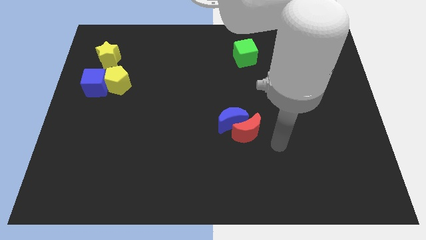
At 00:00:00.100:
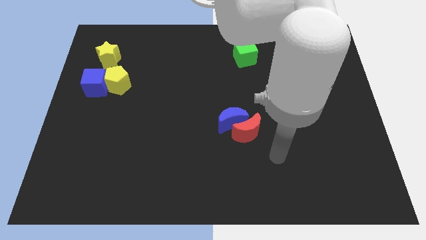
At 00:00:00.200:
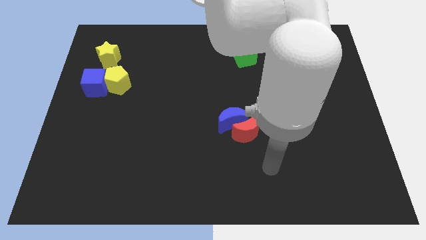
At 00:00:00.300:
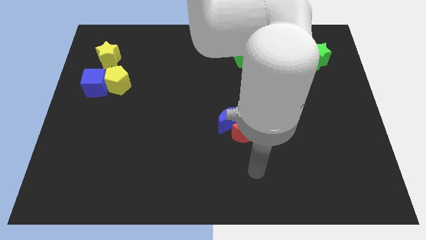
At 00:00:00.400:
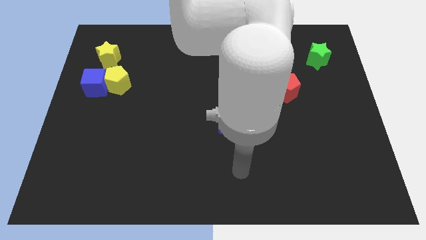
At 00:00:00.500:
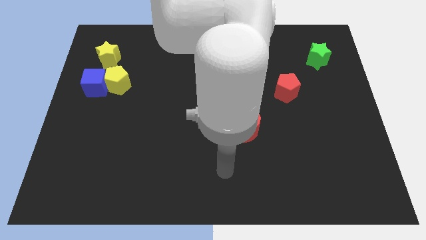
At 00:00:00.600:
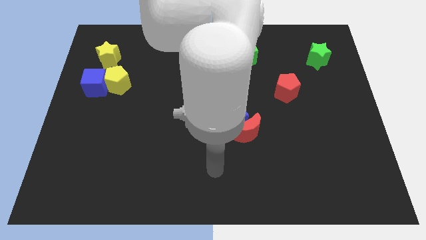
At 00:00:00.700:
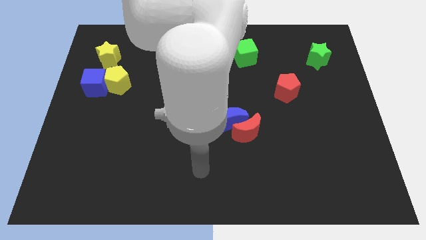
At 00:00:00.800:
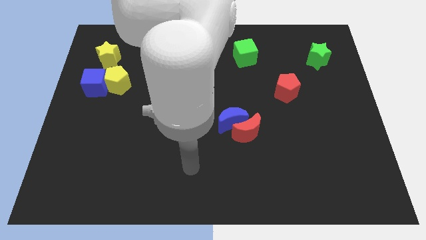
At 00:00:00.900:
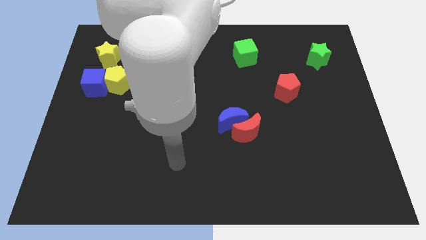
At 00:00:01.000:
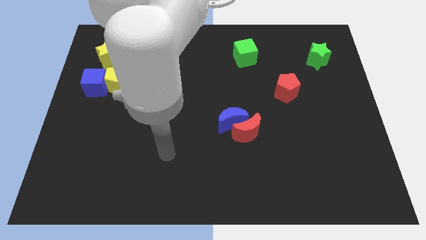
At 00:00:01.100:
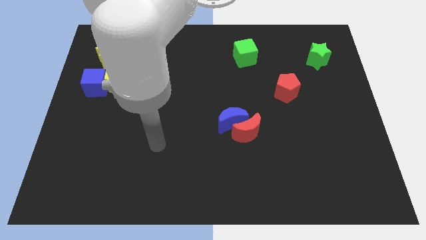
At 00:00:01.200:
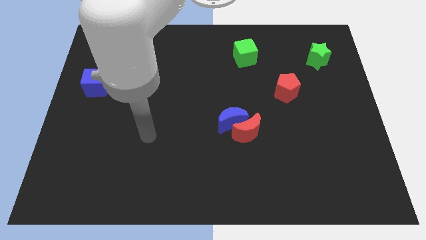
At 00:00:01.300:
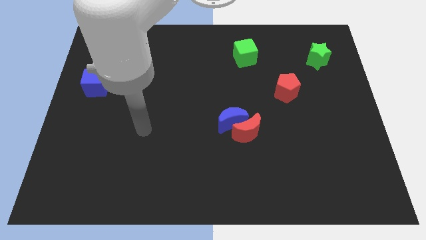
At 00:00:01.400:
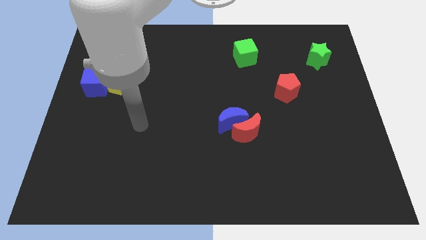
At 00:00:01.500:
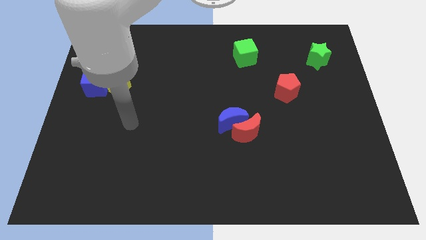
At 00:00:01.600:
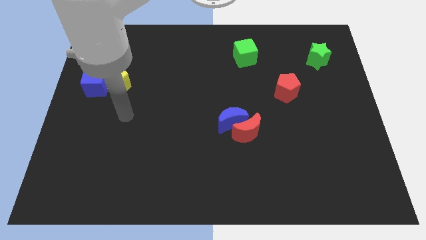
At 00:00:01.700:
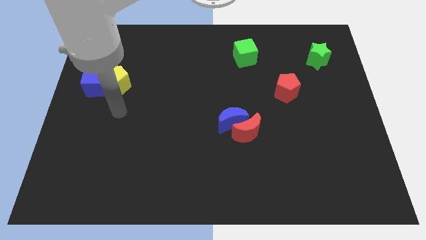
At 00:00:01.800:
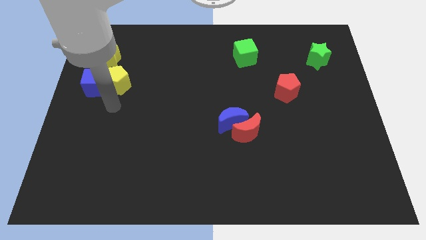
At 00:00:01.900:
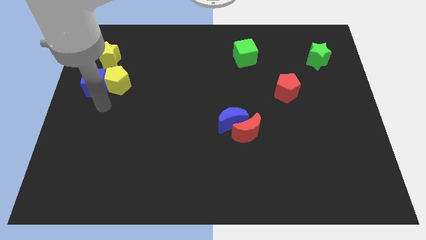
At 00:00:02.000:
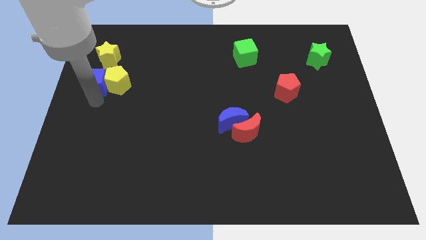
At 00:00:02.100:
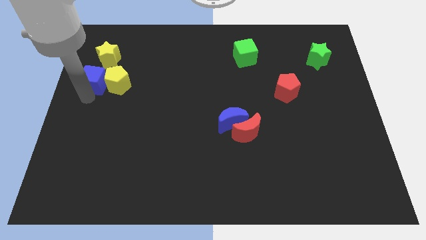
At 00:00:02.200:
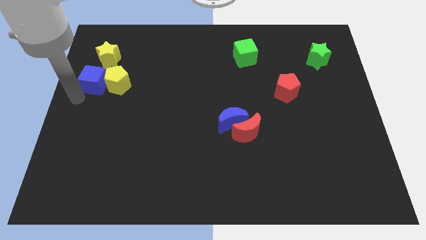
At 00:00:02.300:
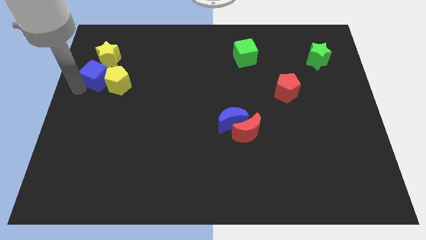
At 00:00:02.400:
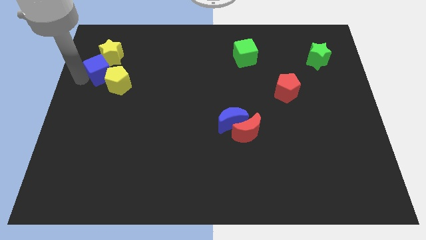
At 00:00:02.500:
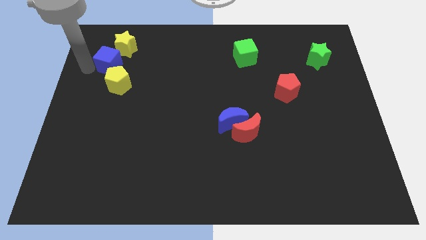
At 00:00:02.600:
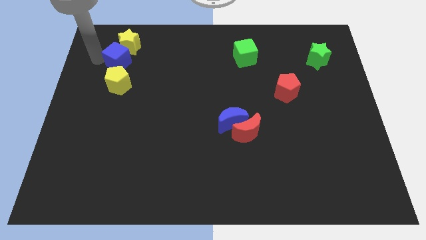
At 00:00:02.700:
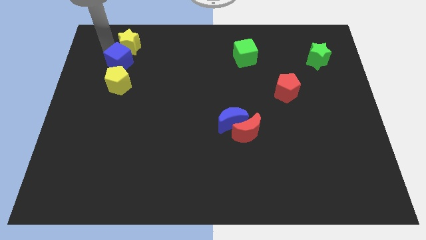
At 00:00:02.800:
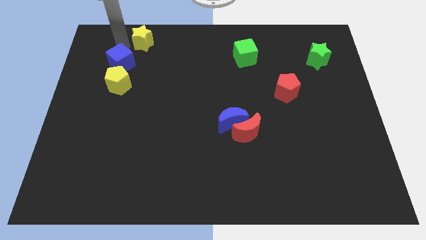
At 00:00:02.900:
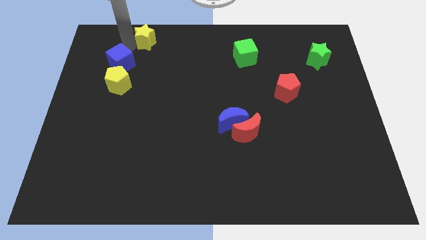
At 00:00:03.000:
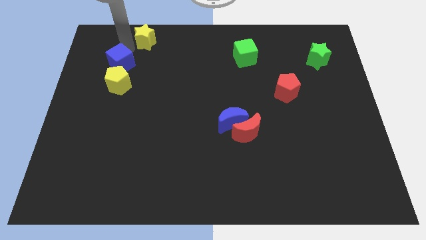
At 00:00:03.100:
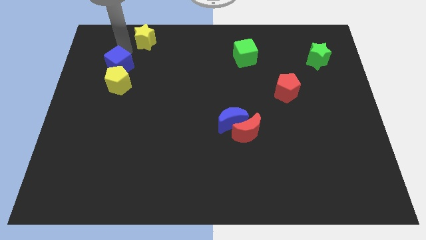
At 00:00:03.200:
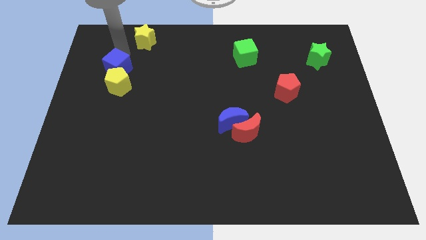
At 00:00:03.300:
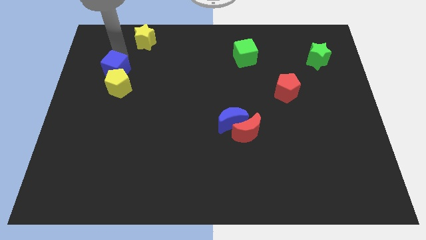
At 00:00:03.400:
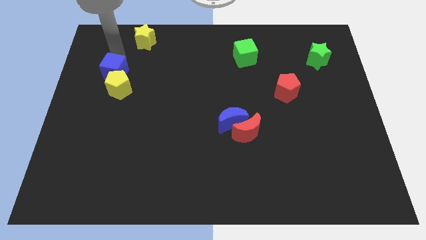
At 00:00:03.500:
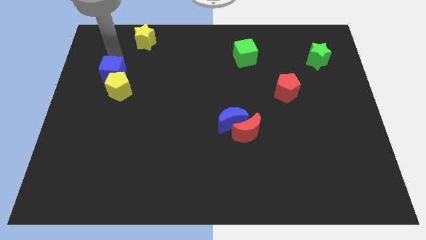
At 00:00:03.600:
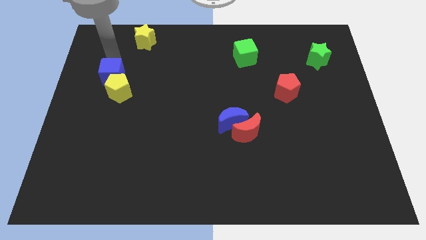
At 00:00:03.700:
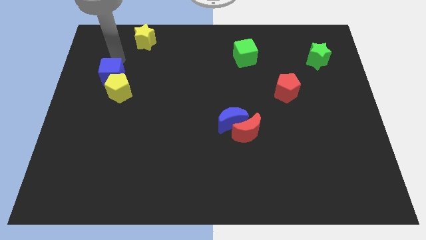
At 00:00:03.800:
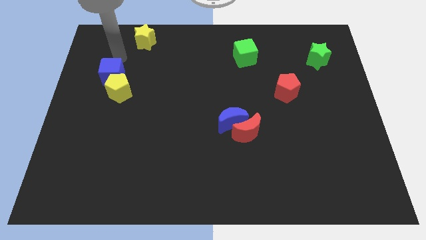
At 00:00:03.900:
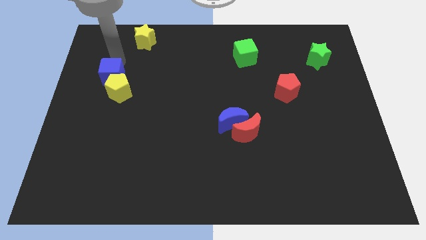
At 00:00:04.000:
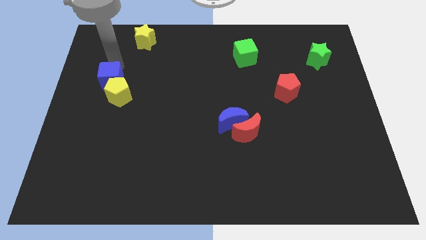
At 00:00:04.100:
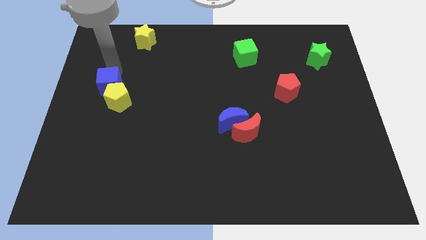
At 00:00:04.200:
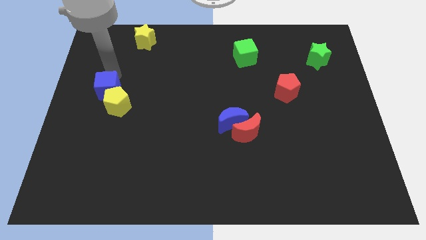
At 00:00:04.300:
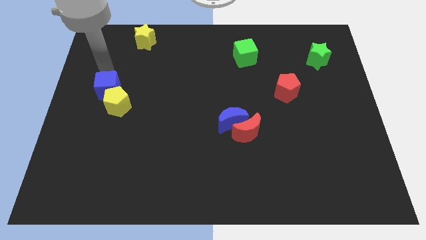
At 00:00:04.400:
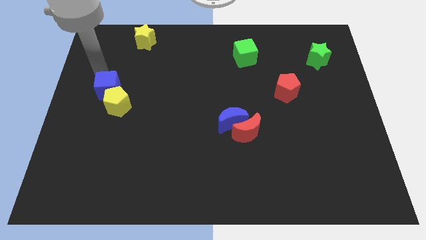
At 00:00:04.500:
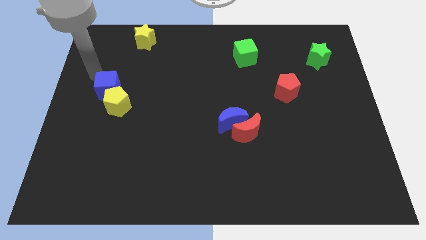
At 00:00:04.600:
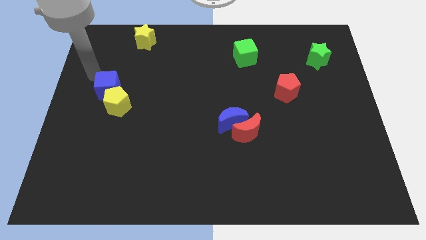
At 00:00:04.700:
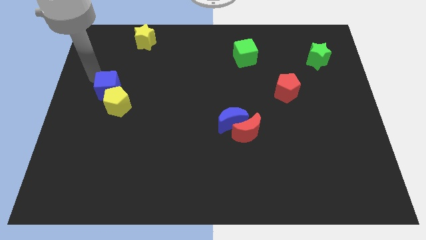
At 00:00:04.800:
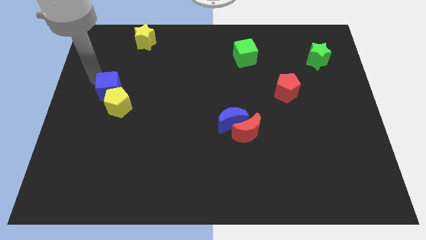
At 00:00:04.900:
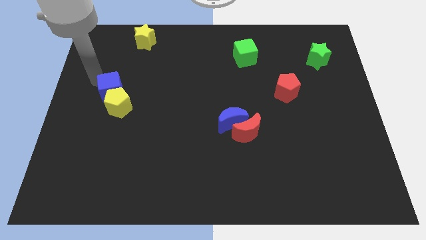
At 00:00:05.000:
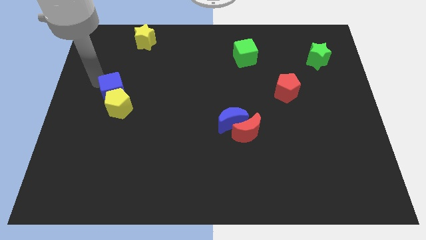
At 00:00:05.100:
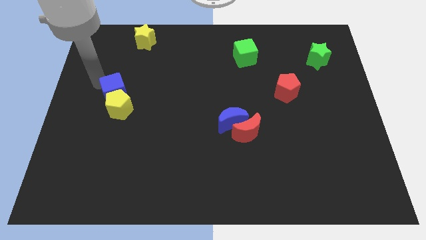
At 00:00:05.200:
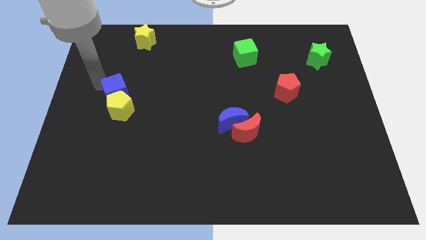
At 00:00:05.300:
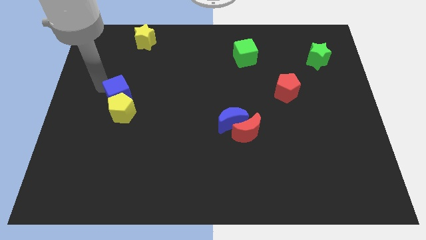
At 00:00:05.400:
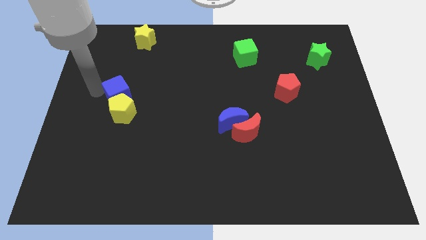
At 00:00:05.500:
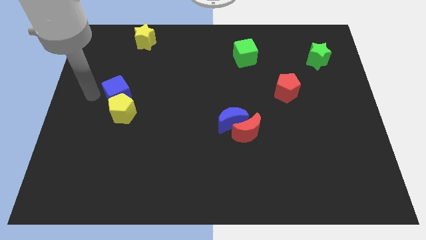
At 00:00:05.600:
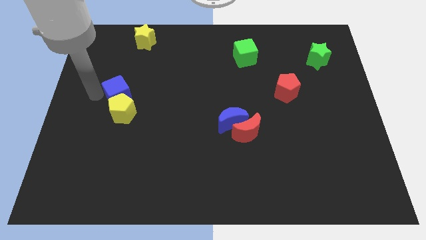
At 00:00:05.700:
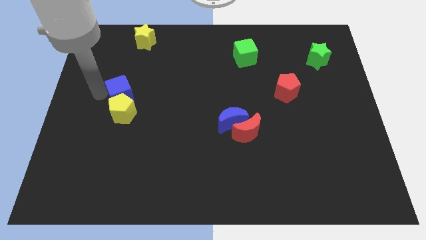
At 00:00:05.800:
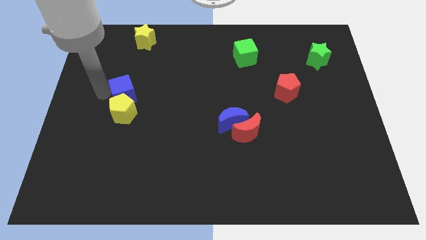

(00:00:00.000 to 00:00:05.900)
push the blue cube right a little bit

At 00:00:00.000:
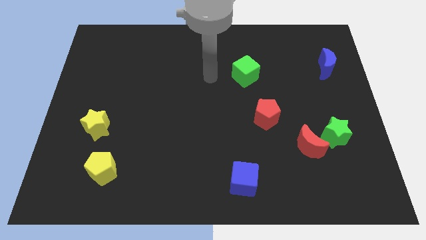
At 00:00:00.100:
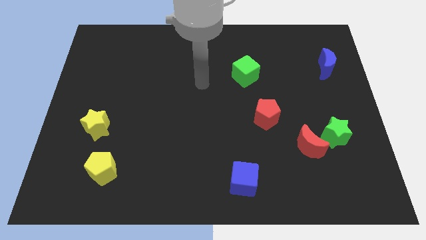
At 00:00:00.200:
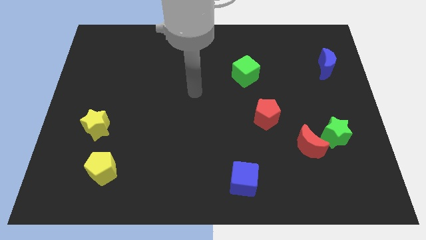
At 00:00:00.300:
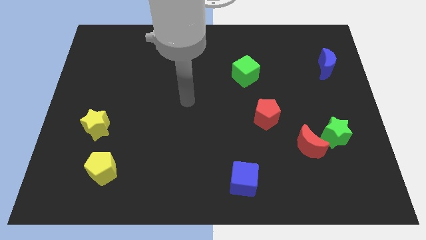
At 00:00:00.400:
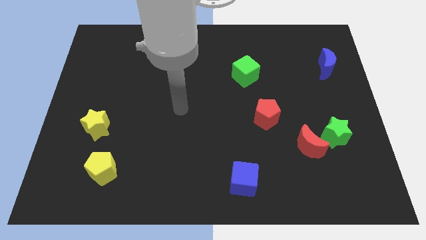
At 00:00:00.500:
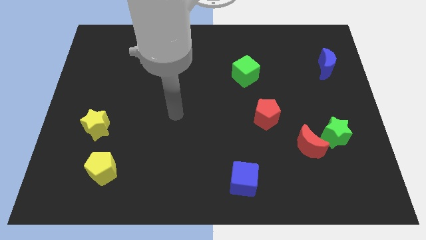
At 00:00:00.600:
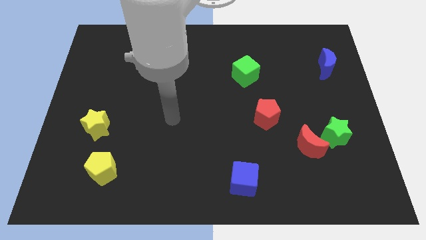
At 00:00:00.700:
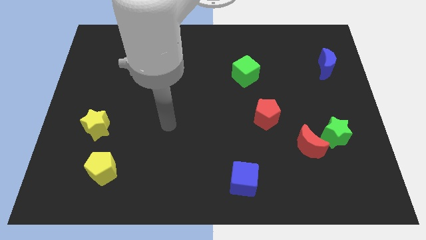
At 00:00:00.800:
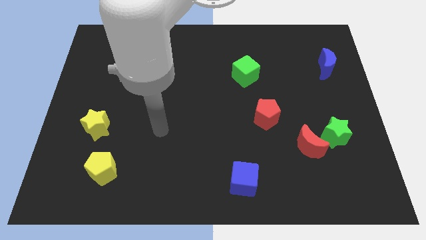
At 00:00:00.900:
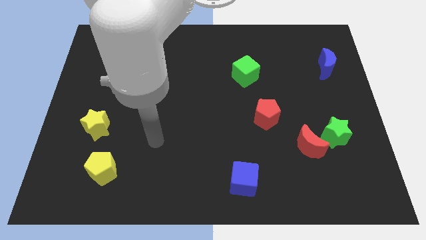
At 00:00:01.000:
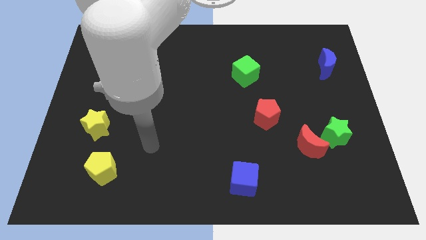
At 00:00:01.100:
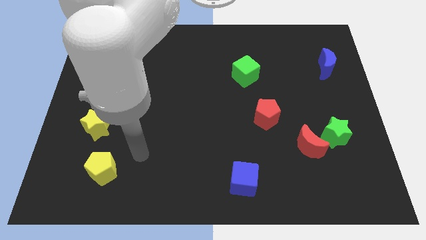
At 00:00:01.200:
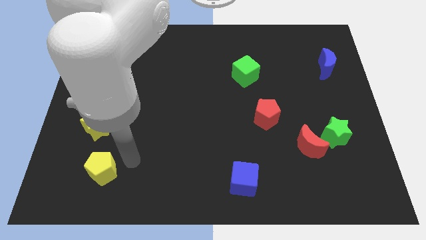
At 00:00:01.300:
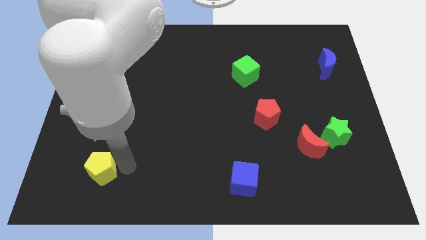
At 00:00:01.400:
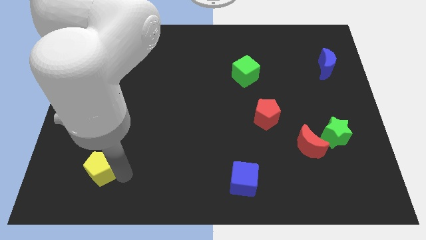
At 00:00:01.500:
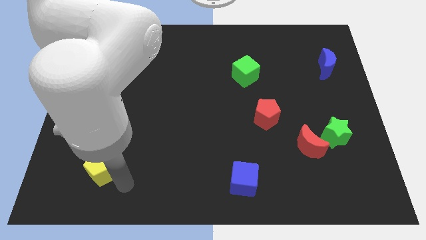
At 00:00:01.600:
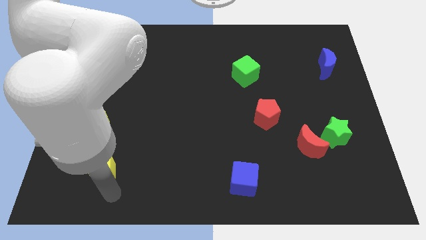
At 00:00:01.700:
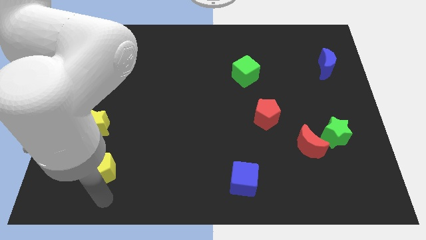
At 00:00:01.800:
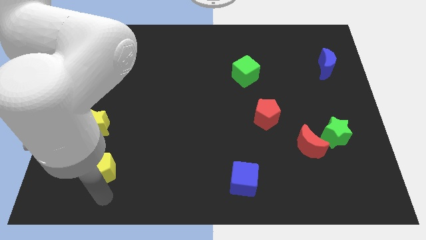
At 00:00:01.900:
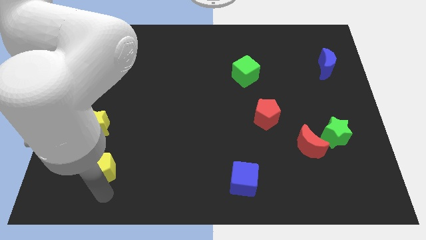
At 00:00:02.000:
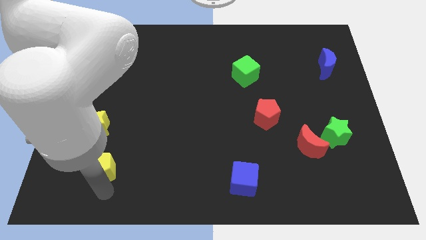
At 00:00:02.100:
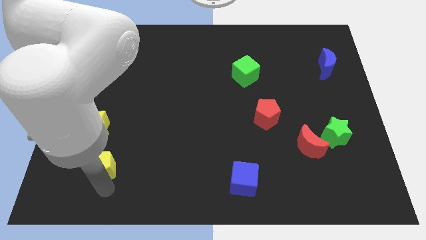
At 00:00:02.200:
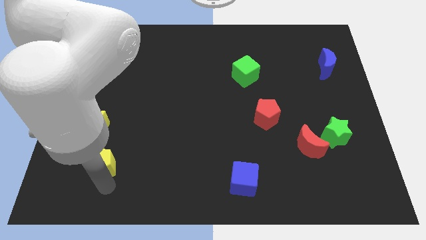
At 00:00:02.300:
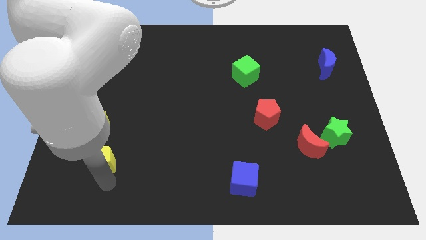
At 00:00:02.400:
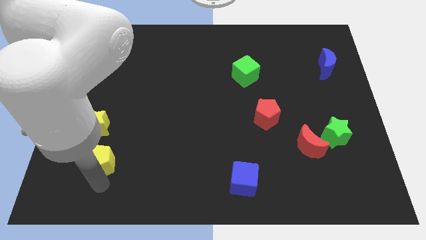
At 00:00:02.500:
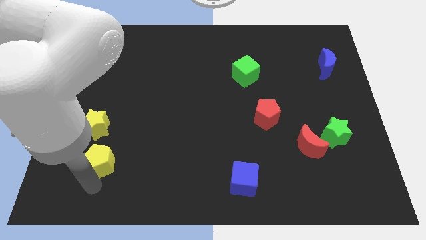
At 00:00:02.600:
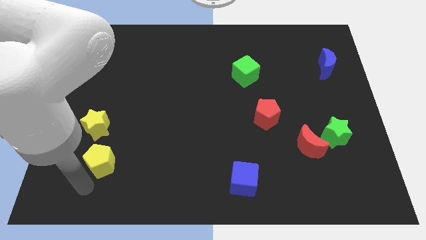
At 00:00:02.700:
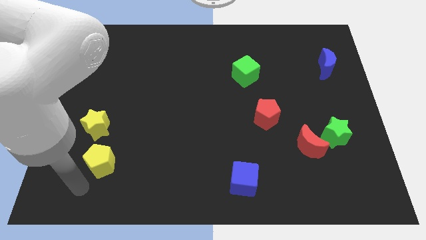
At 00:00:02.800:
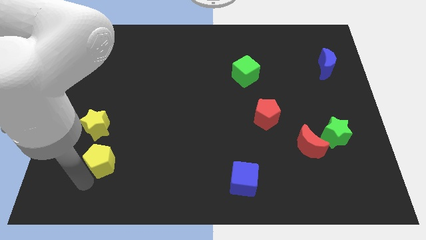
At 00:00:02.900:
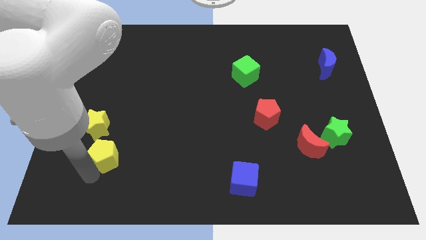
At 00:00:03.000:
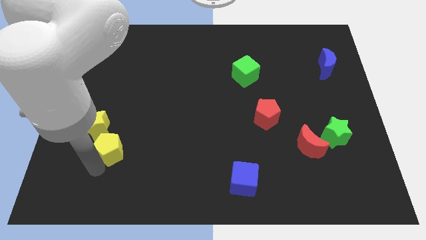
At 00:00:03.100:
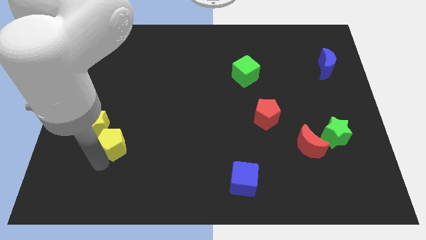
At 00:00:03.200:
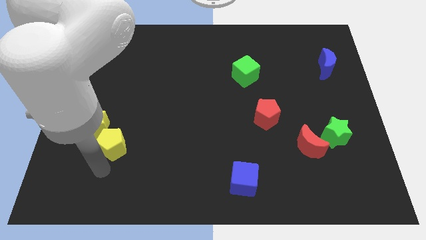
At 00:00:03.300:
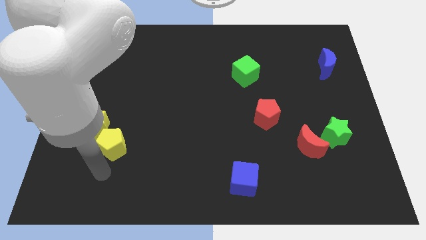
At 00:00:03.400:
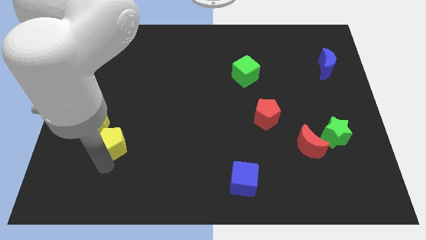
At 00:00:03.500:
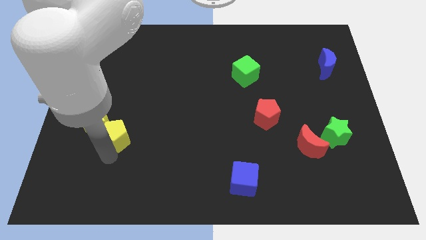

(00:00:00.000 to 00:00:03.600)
move the yellow pentagon a little bit upwards
